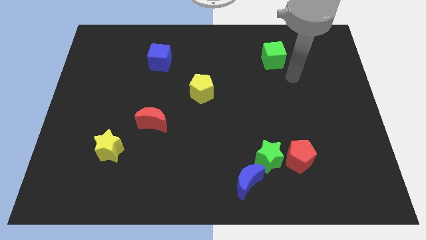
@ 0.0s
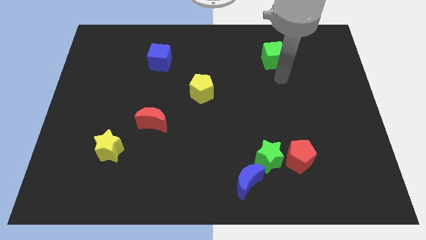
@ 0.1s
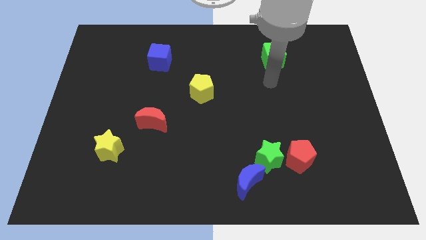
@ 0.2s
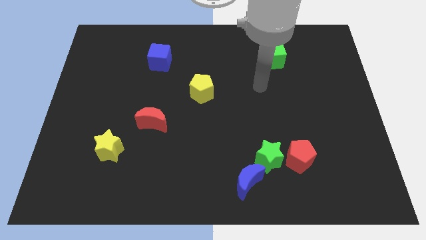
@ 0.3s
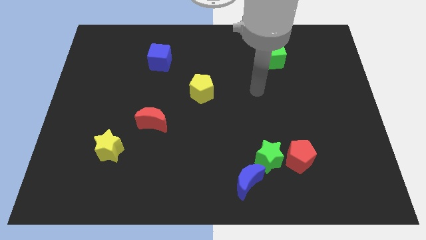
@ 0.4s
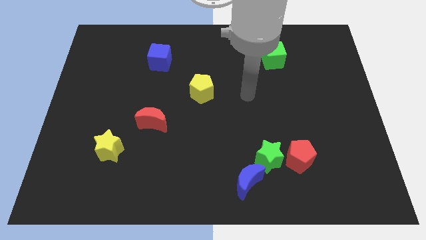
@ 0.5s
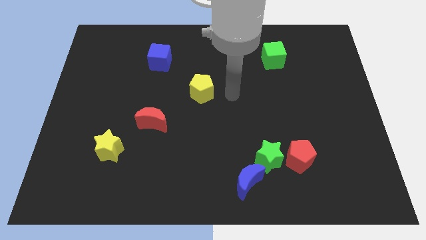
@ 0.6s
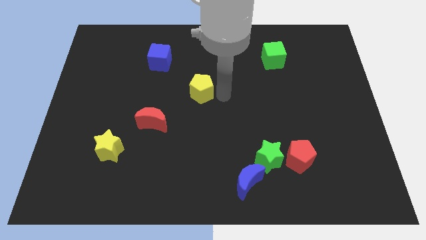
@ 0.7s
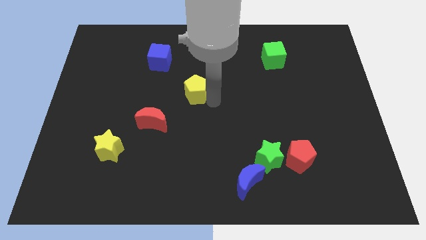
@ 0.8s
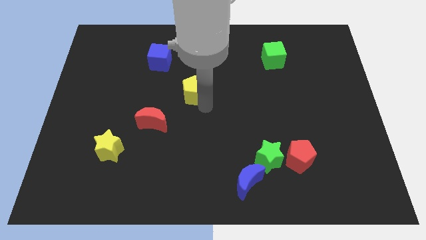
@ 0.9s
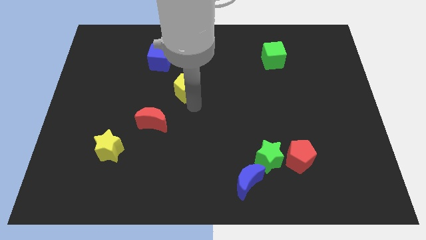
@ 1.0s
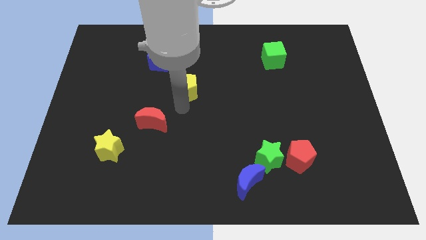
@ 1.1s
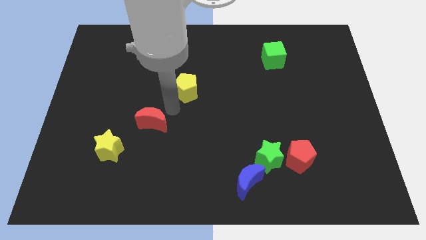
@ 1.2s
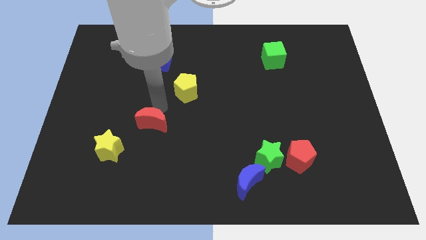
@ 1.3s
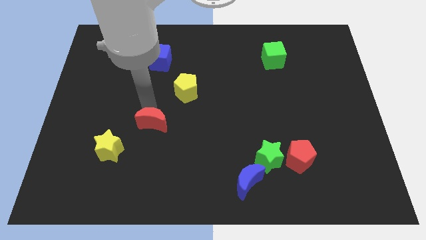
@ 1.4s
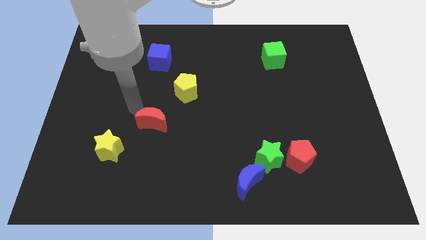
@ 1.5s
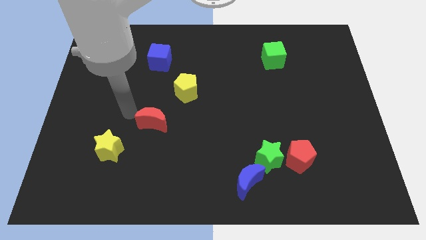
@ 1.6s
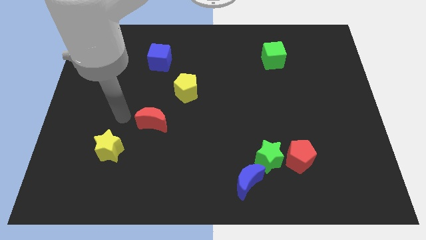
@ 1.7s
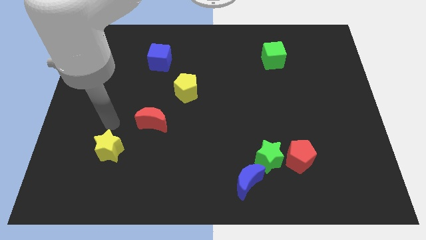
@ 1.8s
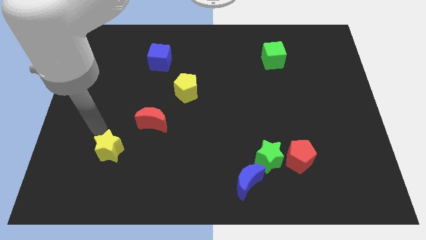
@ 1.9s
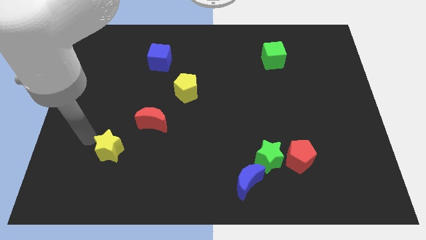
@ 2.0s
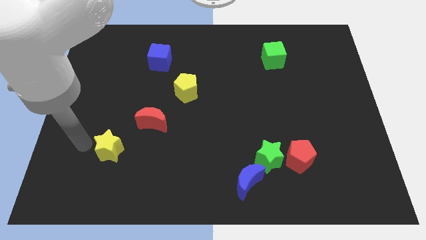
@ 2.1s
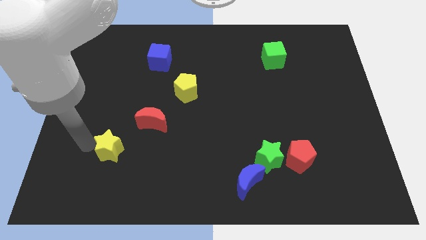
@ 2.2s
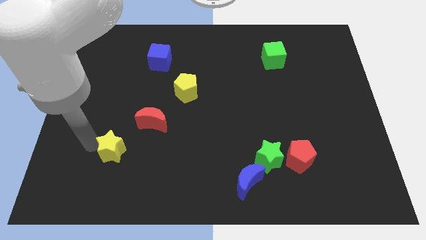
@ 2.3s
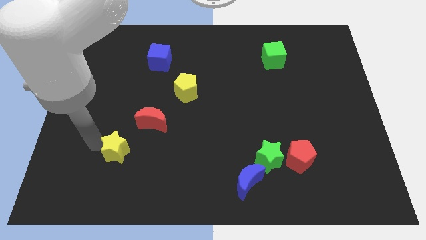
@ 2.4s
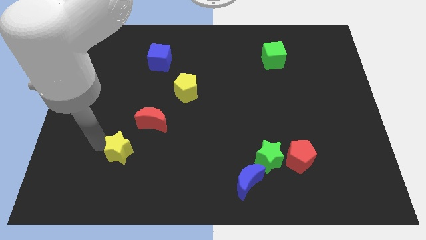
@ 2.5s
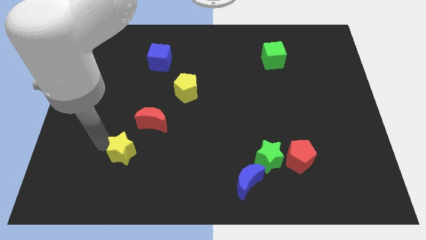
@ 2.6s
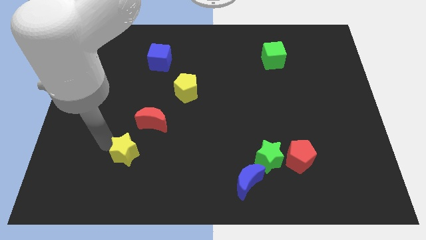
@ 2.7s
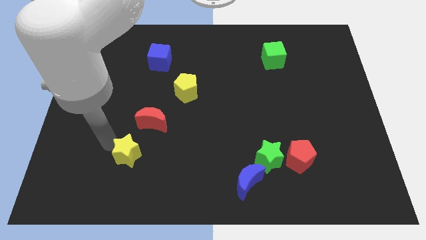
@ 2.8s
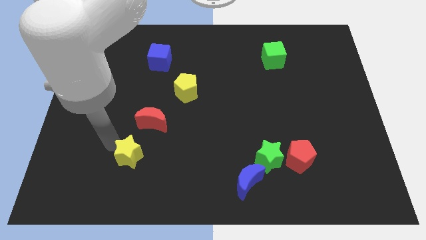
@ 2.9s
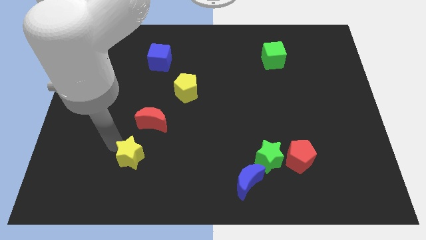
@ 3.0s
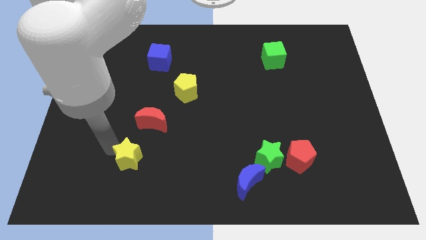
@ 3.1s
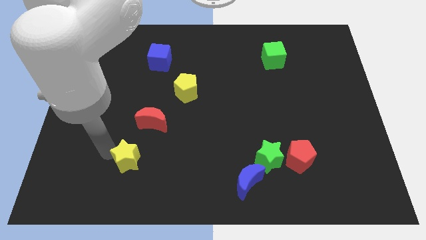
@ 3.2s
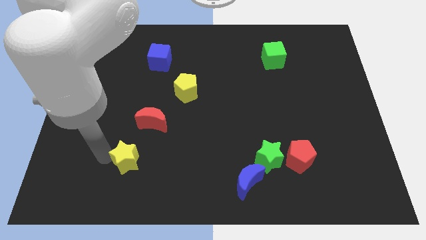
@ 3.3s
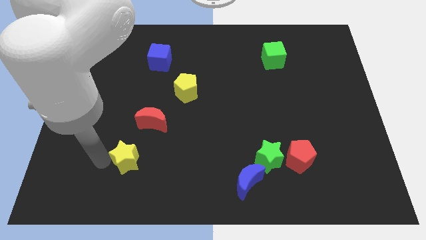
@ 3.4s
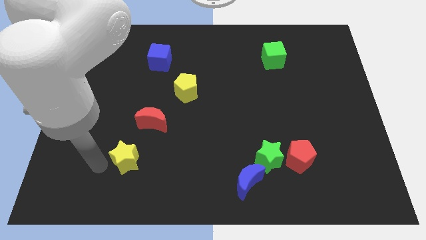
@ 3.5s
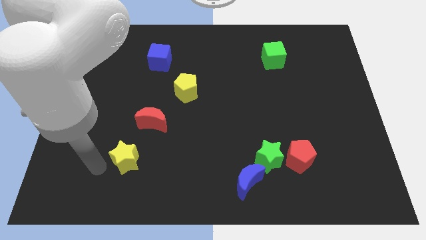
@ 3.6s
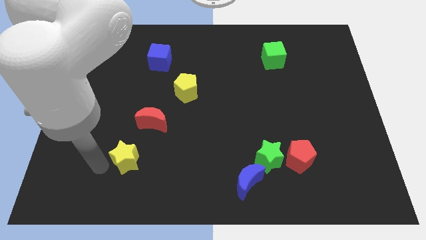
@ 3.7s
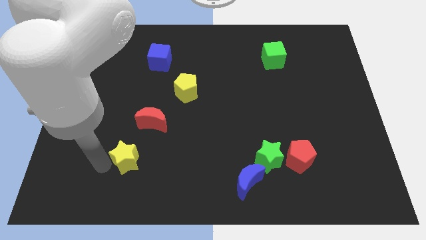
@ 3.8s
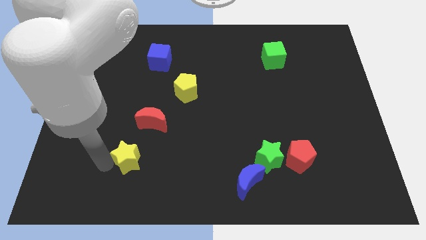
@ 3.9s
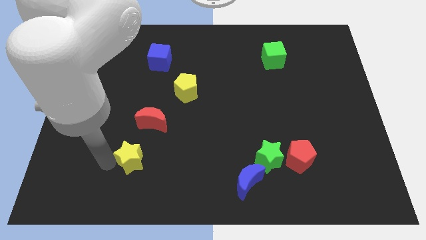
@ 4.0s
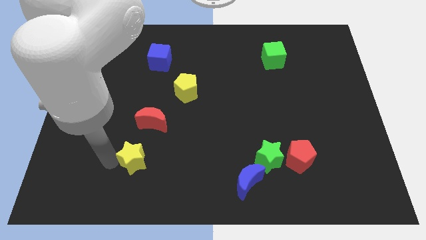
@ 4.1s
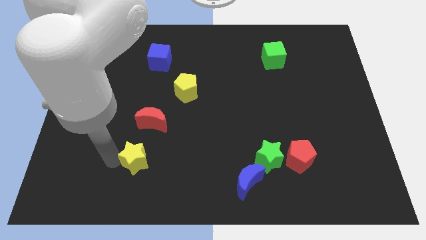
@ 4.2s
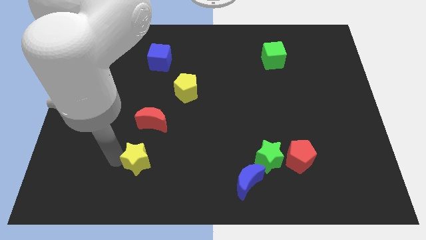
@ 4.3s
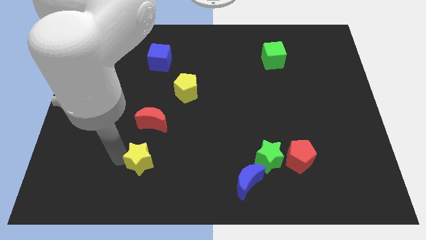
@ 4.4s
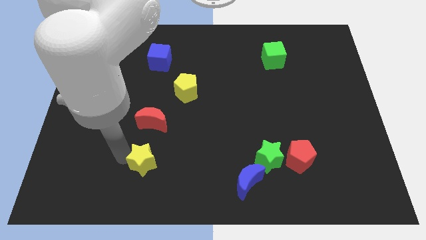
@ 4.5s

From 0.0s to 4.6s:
slide the yellow star a little bit right

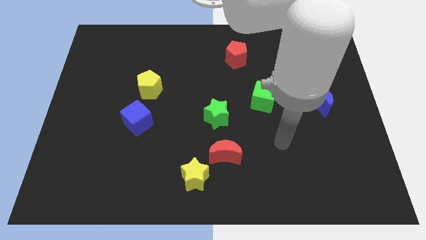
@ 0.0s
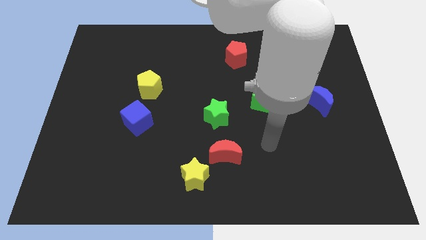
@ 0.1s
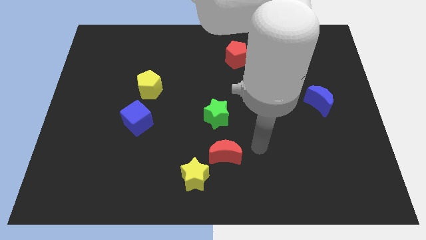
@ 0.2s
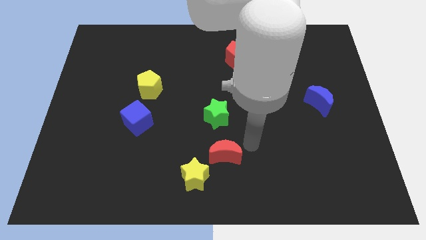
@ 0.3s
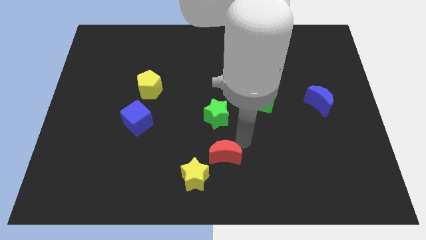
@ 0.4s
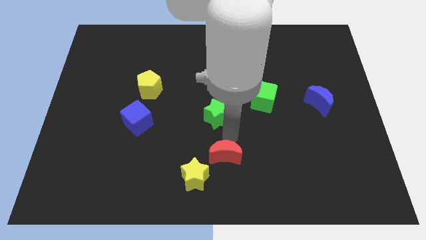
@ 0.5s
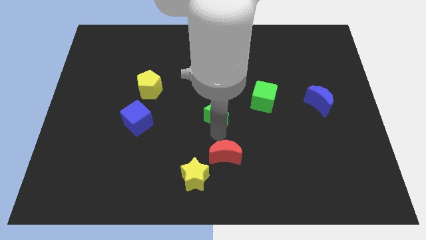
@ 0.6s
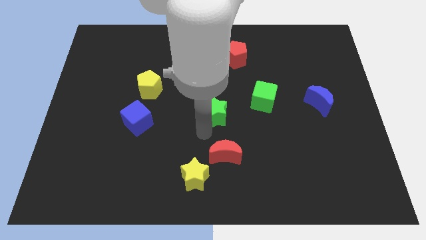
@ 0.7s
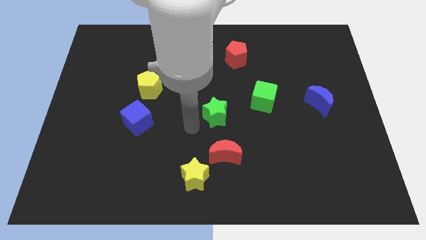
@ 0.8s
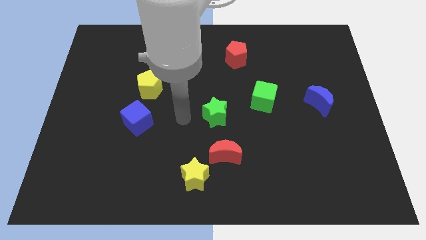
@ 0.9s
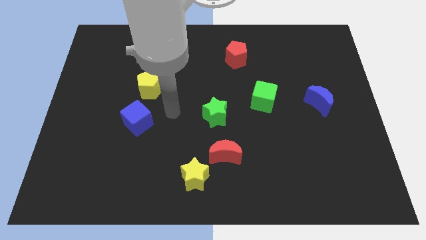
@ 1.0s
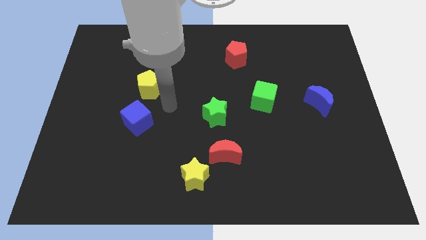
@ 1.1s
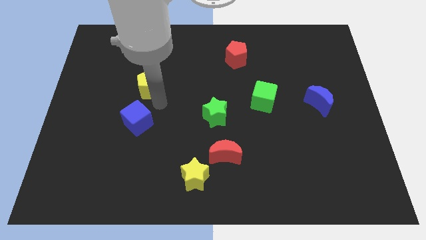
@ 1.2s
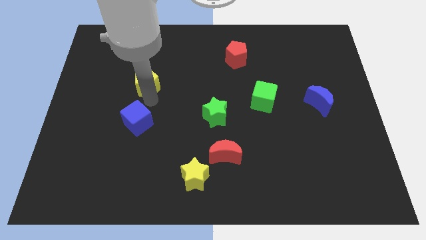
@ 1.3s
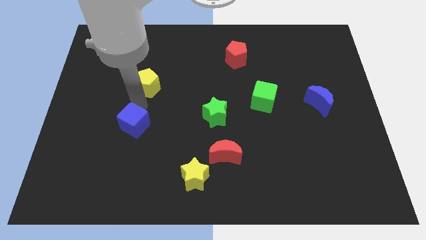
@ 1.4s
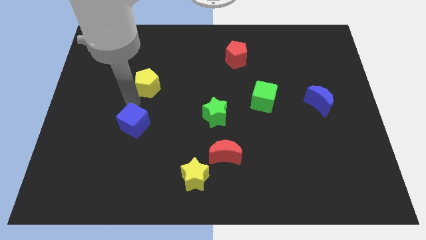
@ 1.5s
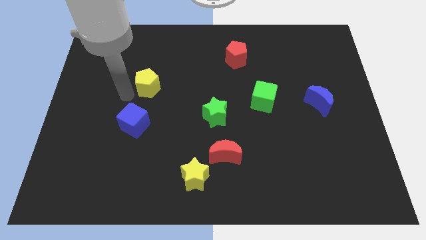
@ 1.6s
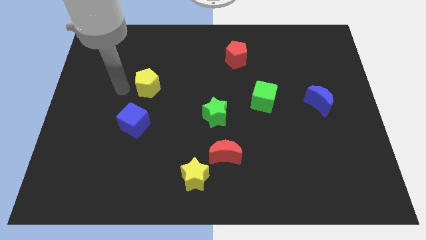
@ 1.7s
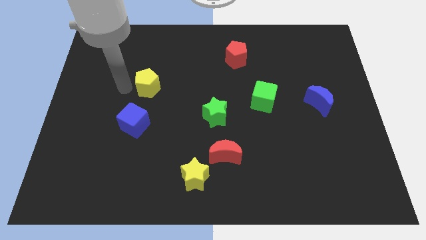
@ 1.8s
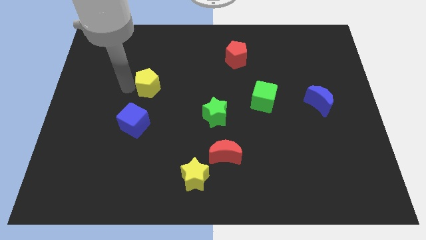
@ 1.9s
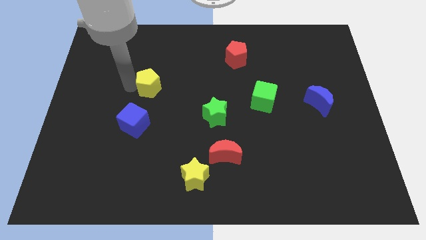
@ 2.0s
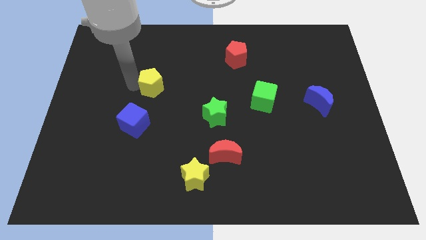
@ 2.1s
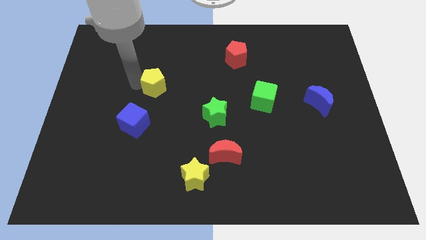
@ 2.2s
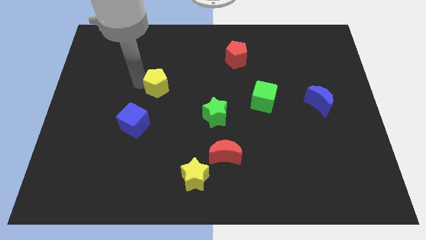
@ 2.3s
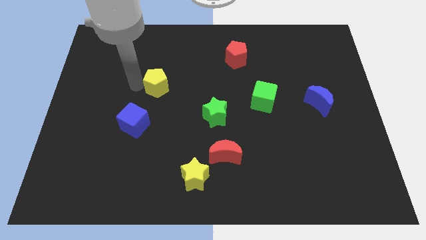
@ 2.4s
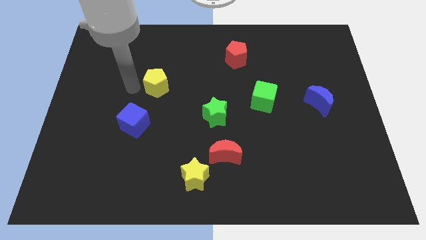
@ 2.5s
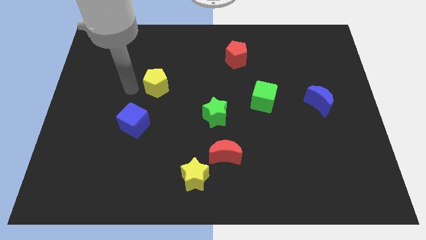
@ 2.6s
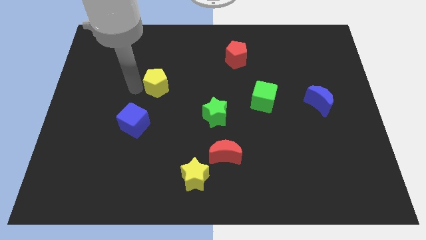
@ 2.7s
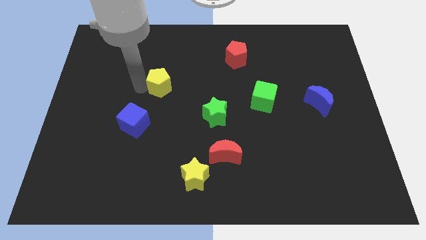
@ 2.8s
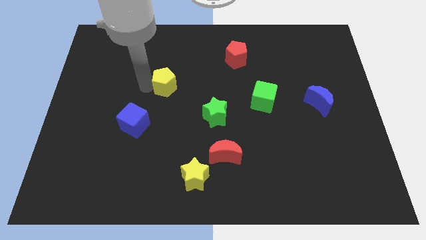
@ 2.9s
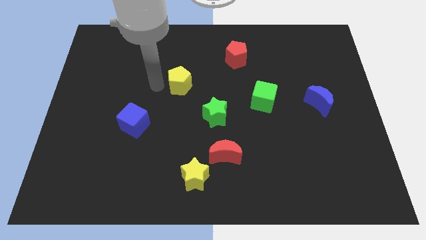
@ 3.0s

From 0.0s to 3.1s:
slightly slide the yellow pentagon to the right

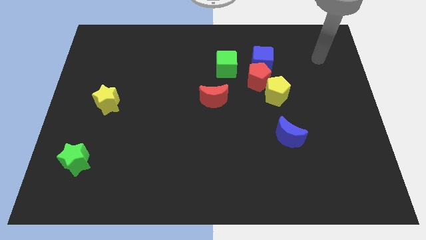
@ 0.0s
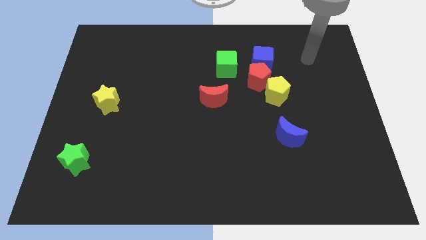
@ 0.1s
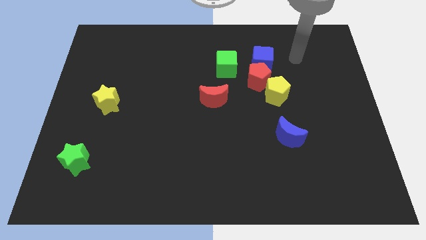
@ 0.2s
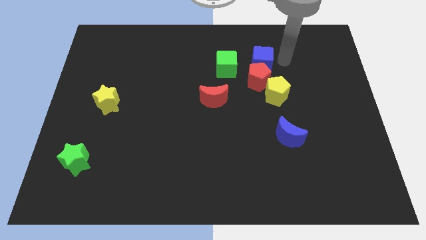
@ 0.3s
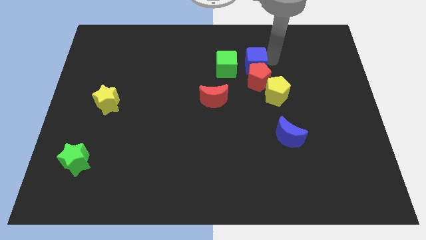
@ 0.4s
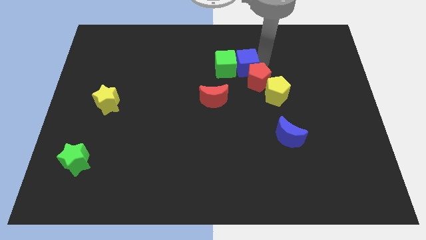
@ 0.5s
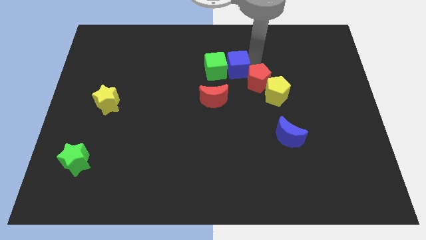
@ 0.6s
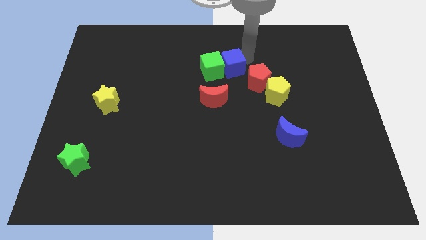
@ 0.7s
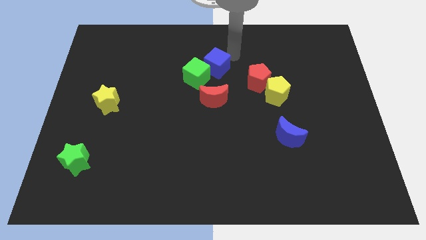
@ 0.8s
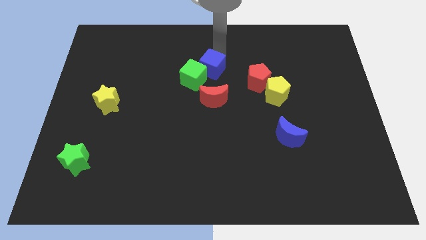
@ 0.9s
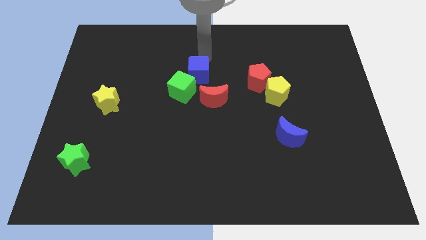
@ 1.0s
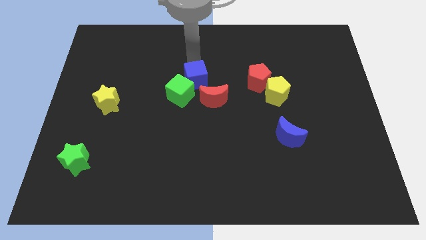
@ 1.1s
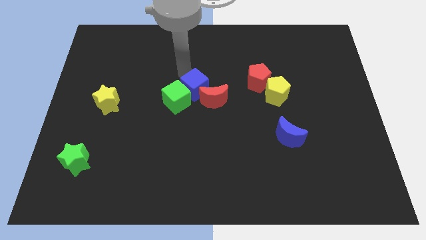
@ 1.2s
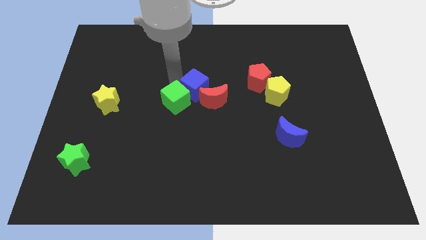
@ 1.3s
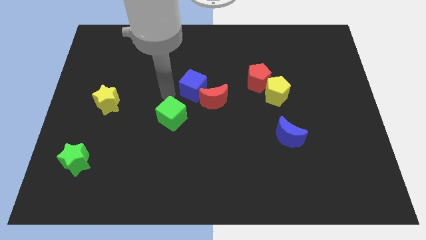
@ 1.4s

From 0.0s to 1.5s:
move the green cube down and then to the left
